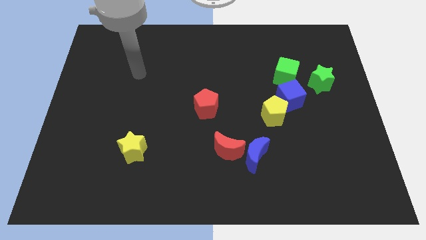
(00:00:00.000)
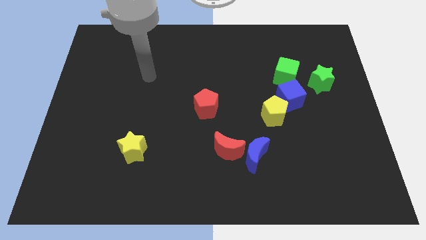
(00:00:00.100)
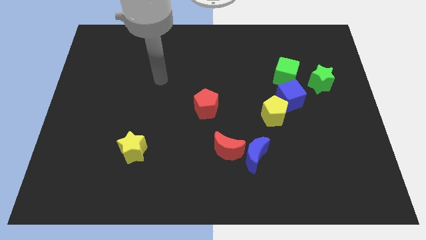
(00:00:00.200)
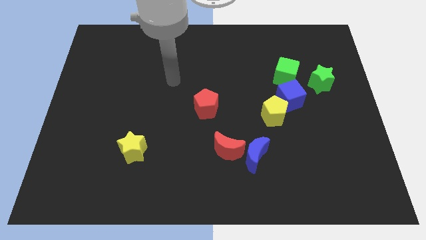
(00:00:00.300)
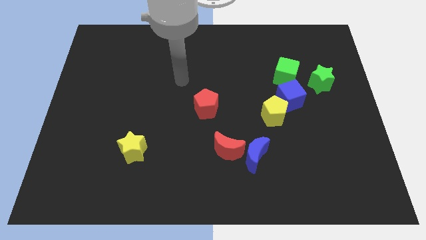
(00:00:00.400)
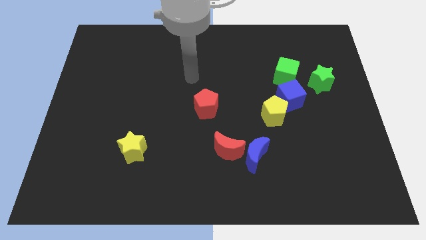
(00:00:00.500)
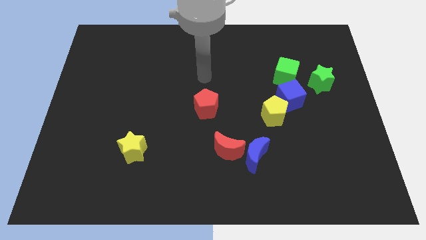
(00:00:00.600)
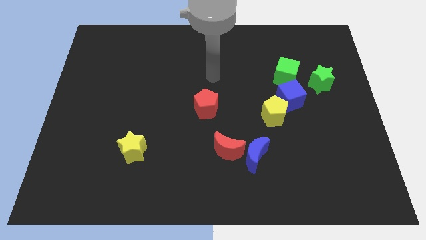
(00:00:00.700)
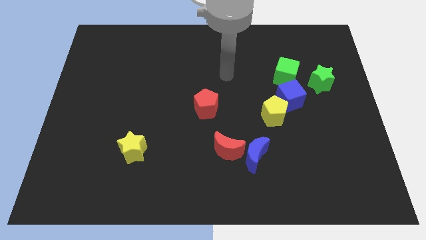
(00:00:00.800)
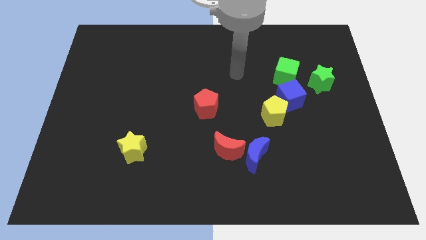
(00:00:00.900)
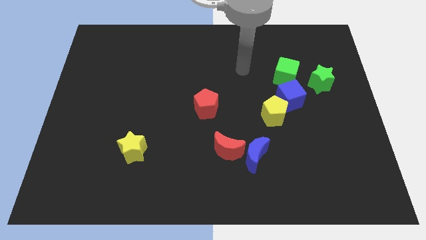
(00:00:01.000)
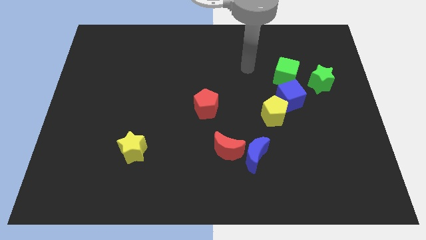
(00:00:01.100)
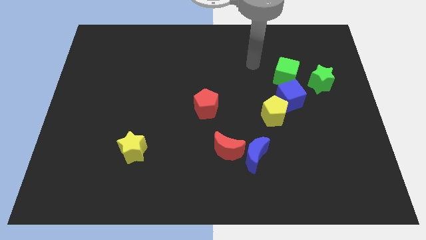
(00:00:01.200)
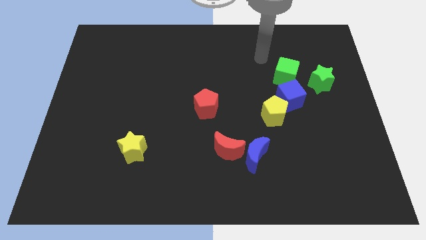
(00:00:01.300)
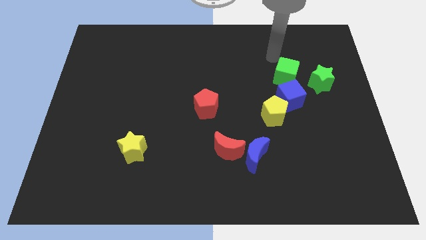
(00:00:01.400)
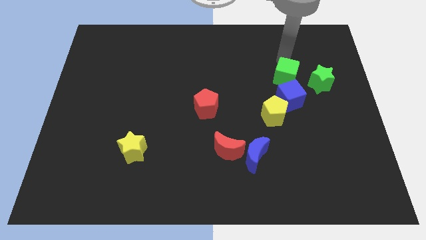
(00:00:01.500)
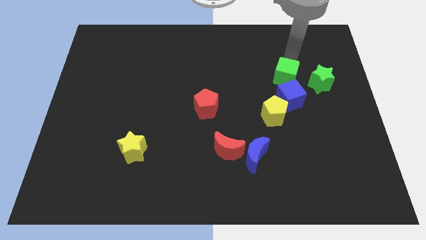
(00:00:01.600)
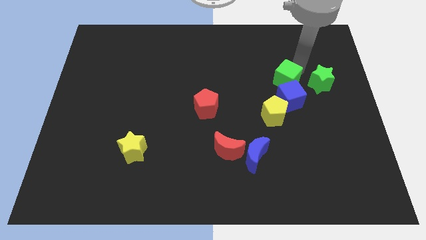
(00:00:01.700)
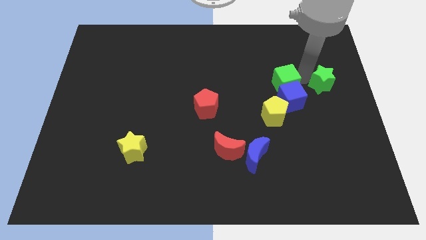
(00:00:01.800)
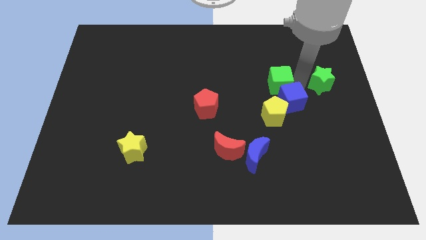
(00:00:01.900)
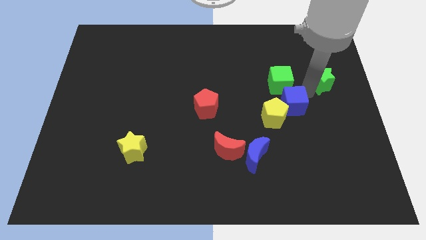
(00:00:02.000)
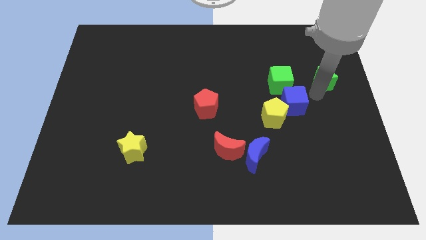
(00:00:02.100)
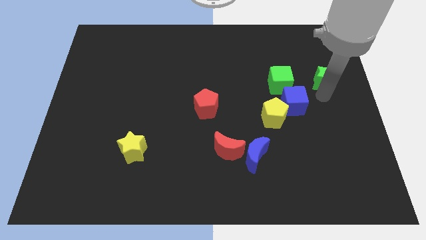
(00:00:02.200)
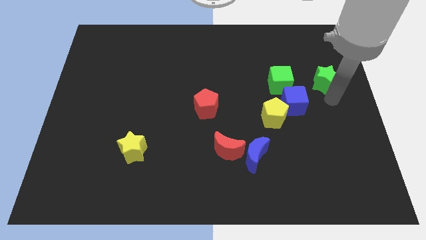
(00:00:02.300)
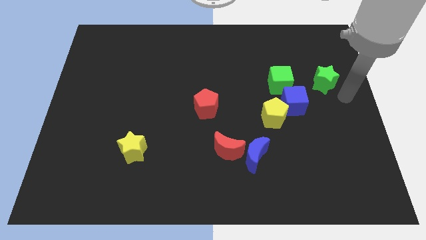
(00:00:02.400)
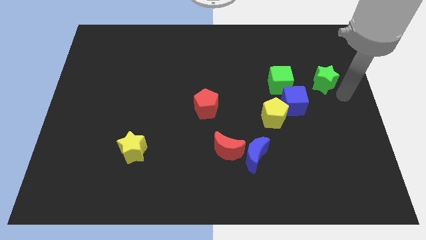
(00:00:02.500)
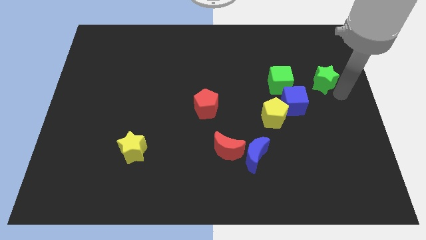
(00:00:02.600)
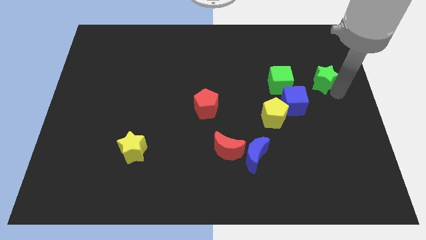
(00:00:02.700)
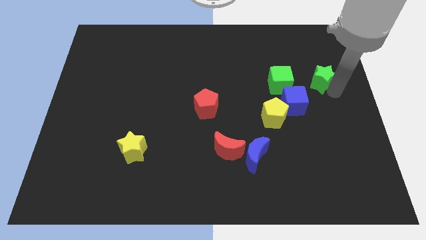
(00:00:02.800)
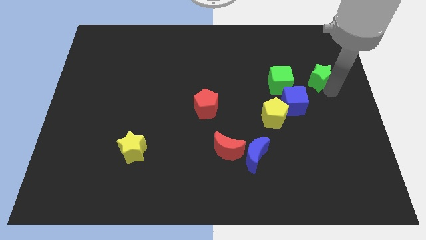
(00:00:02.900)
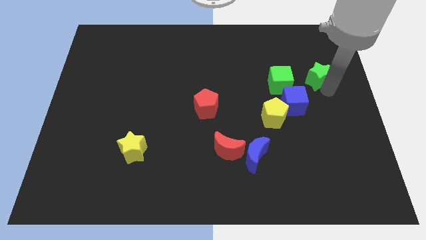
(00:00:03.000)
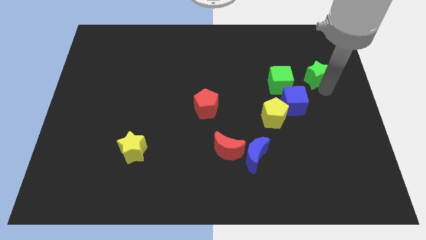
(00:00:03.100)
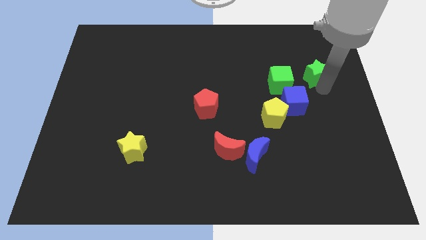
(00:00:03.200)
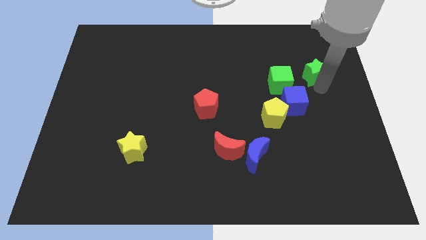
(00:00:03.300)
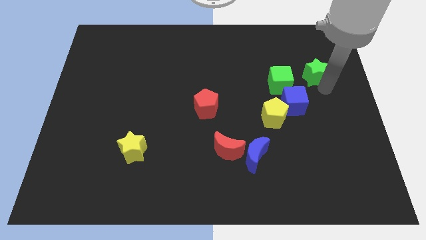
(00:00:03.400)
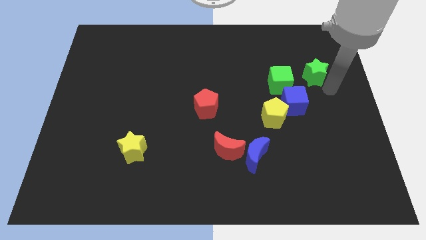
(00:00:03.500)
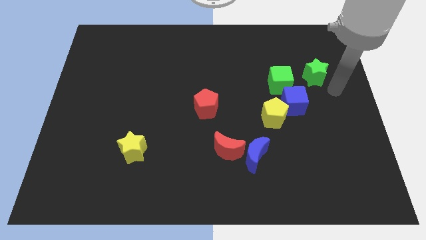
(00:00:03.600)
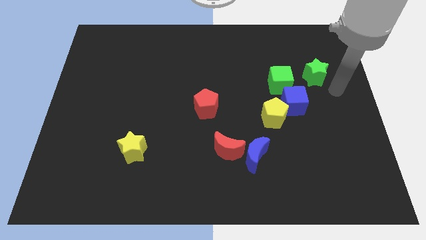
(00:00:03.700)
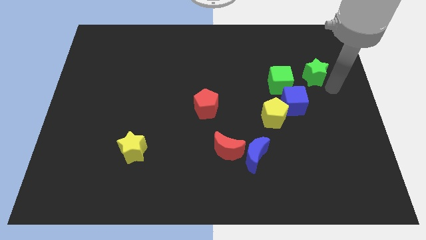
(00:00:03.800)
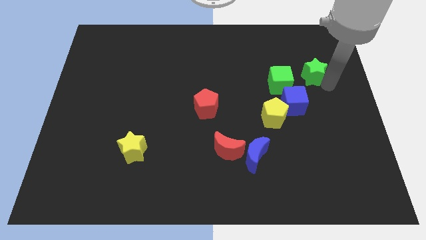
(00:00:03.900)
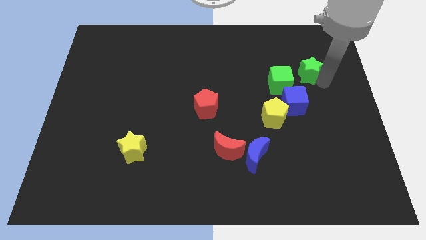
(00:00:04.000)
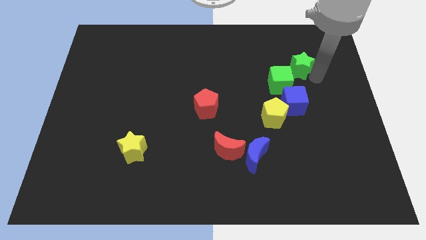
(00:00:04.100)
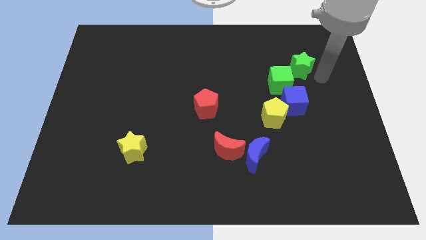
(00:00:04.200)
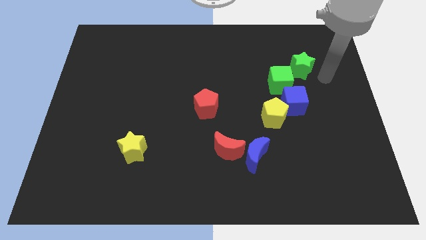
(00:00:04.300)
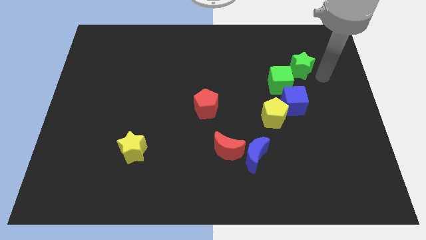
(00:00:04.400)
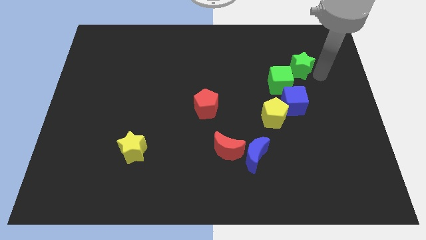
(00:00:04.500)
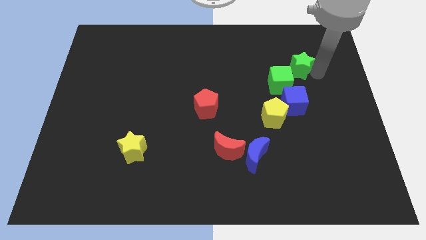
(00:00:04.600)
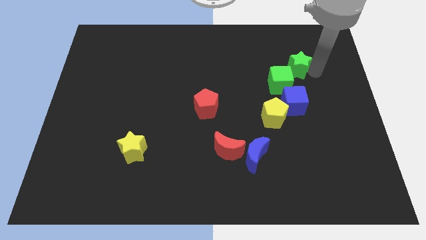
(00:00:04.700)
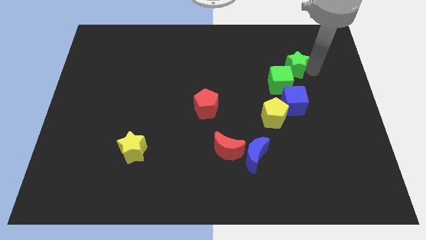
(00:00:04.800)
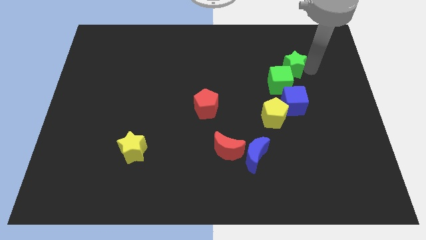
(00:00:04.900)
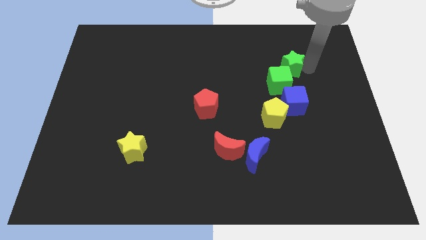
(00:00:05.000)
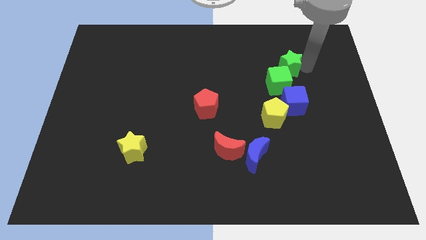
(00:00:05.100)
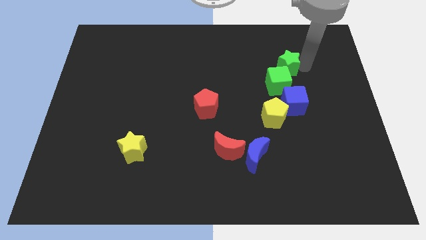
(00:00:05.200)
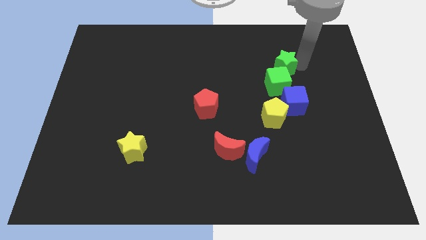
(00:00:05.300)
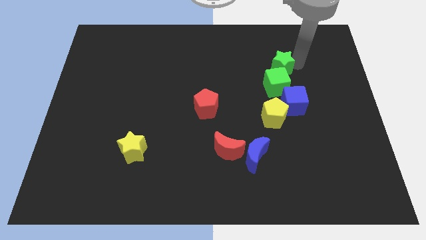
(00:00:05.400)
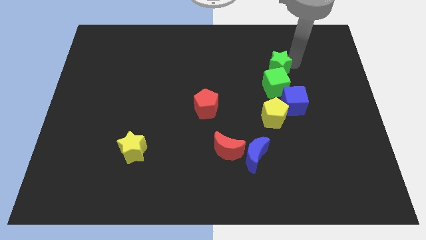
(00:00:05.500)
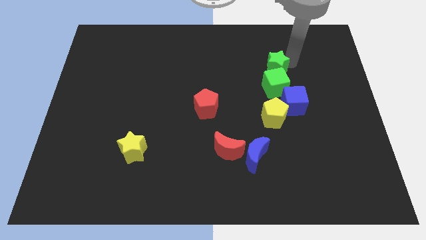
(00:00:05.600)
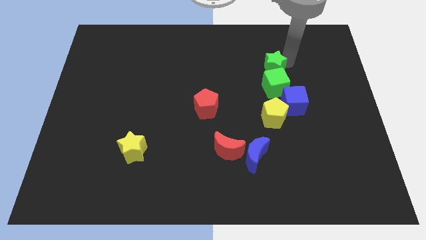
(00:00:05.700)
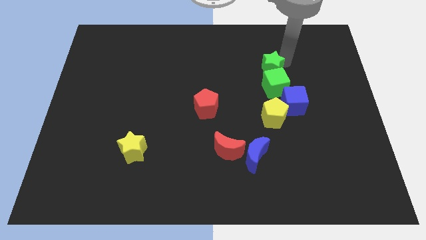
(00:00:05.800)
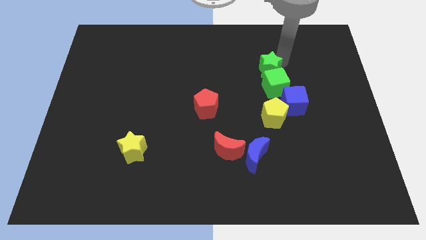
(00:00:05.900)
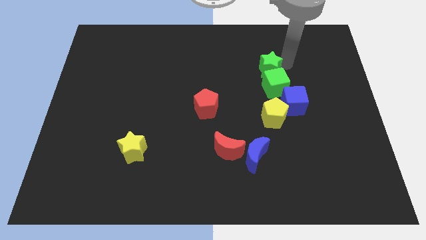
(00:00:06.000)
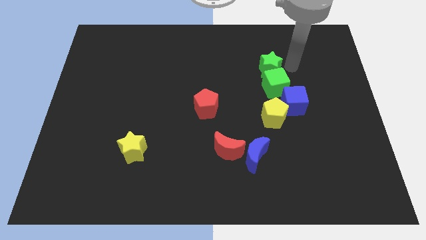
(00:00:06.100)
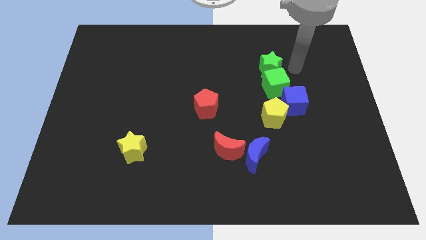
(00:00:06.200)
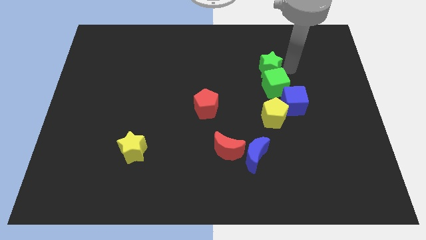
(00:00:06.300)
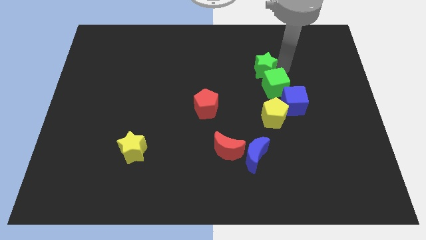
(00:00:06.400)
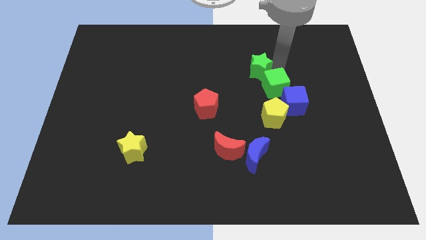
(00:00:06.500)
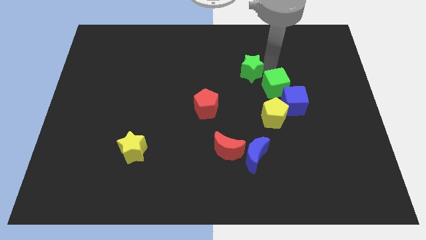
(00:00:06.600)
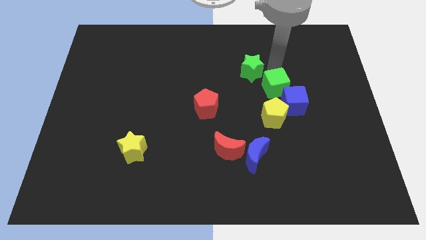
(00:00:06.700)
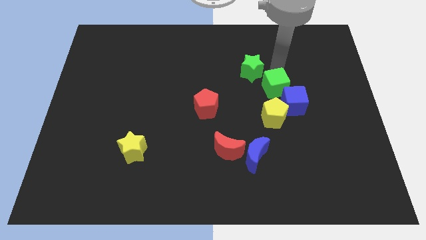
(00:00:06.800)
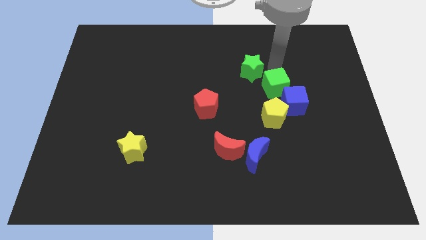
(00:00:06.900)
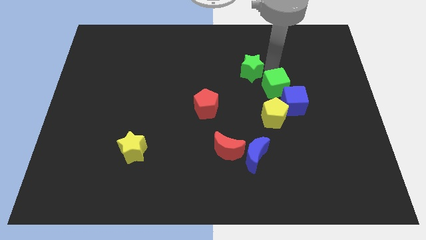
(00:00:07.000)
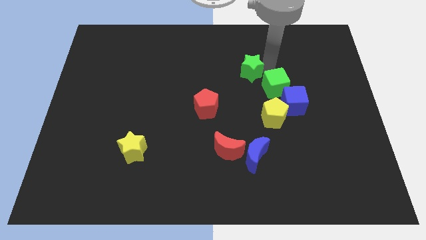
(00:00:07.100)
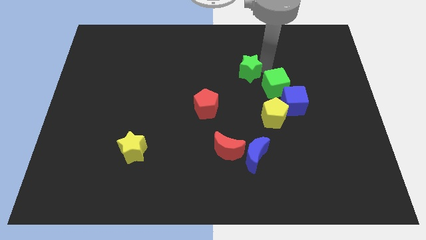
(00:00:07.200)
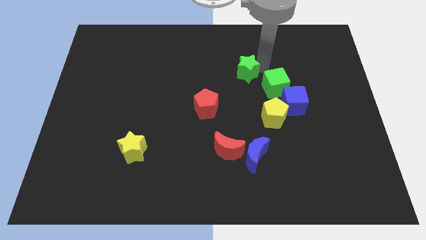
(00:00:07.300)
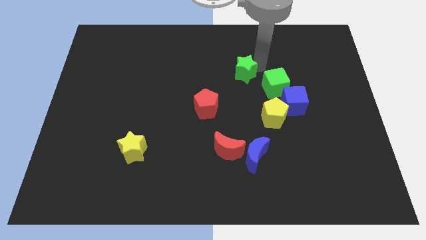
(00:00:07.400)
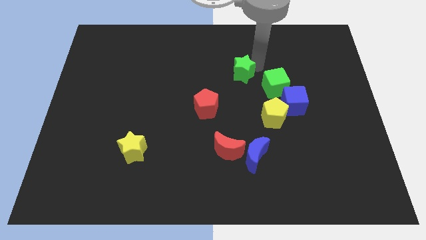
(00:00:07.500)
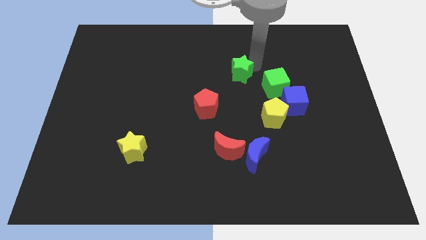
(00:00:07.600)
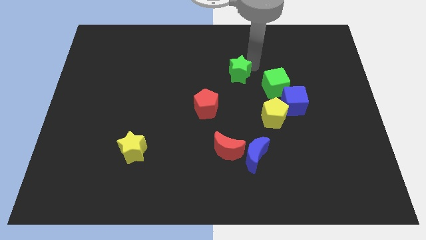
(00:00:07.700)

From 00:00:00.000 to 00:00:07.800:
move the green star to the left
